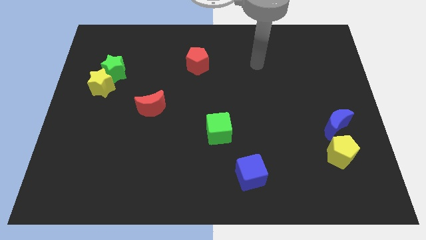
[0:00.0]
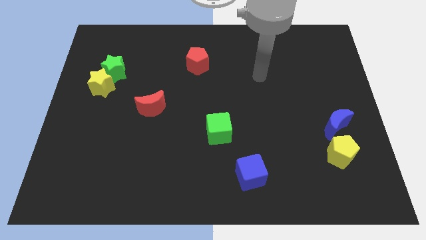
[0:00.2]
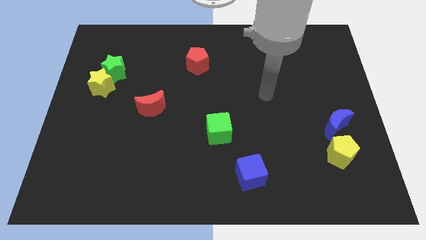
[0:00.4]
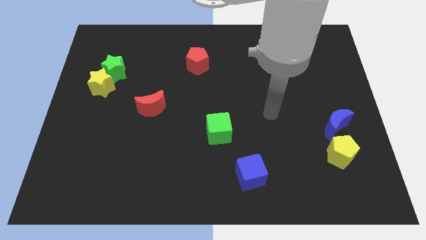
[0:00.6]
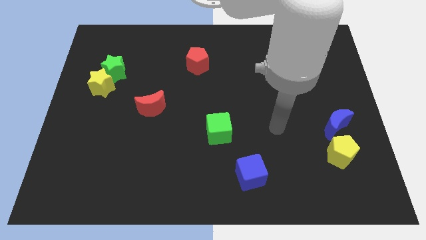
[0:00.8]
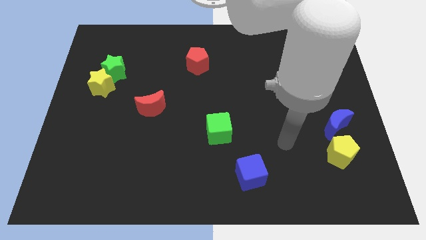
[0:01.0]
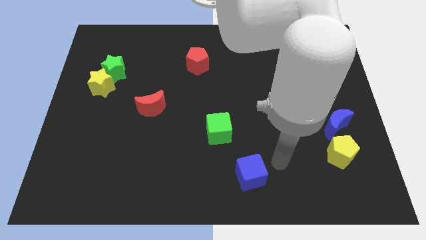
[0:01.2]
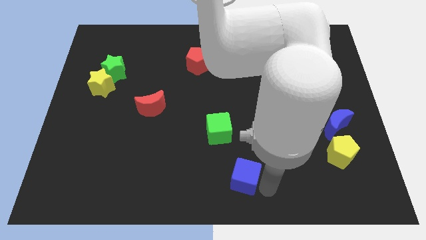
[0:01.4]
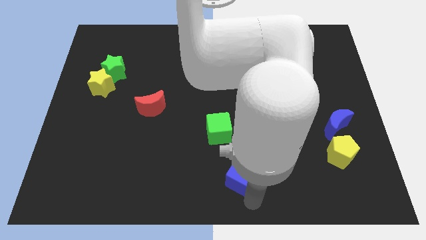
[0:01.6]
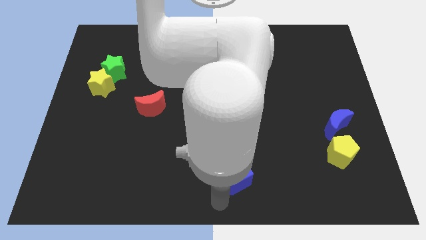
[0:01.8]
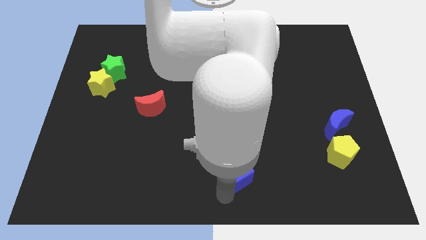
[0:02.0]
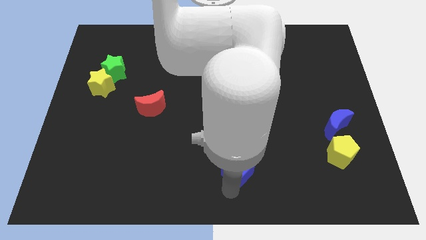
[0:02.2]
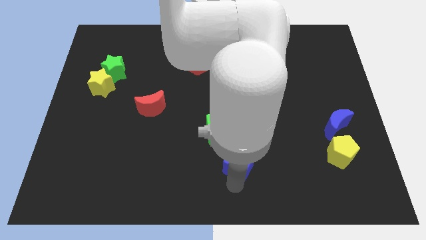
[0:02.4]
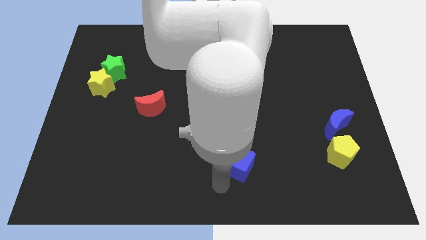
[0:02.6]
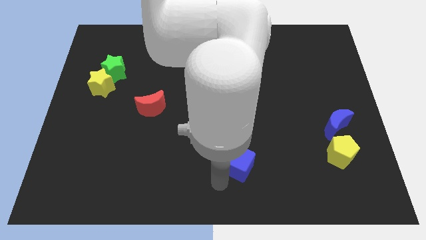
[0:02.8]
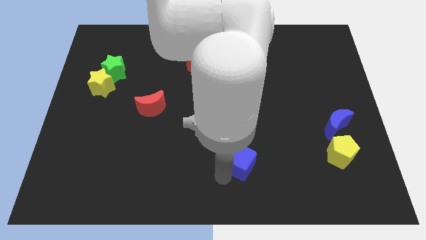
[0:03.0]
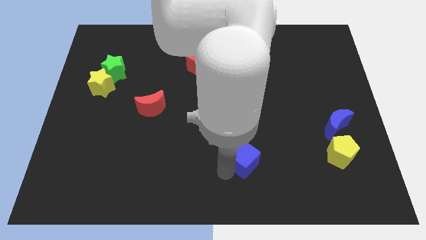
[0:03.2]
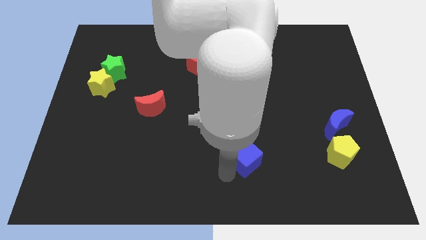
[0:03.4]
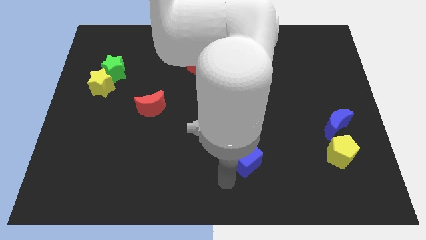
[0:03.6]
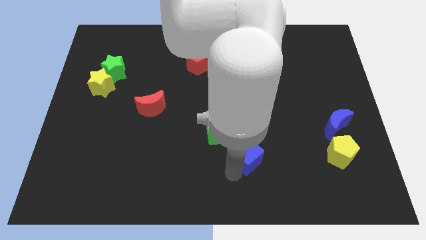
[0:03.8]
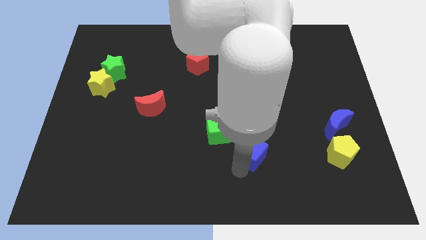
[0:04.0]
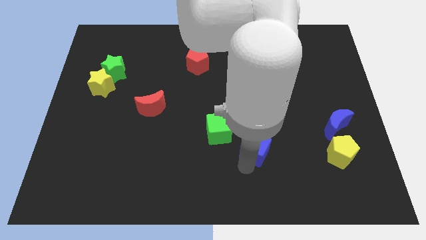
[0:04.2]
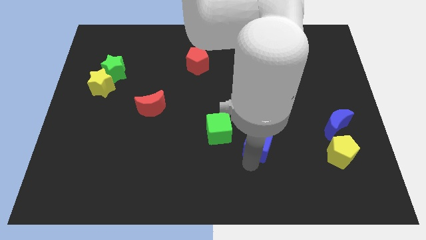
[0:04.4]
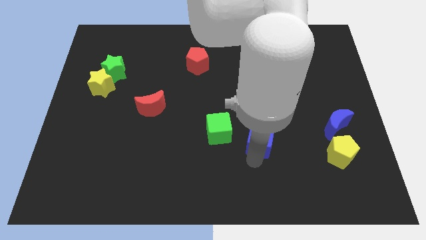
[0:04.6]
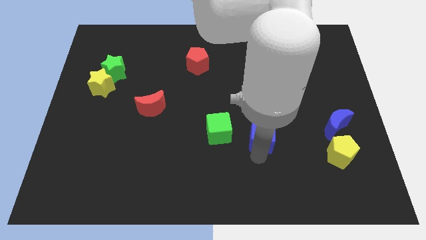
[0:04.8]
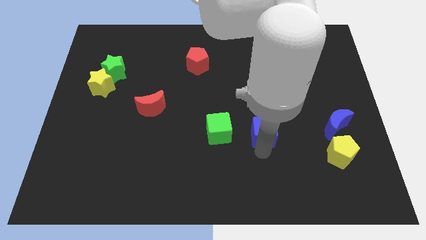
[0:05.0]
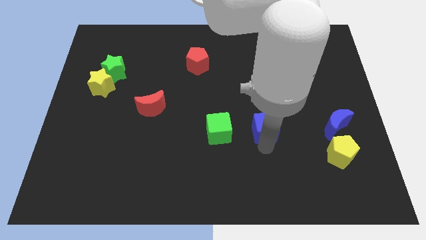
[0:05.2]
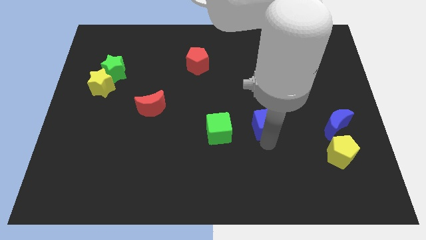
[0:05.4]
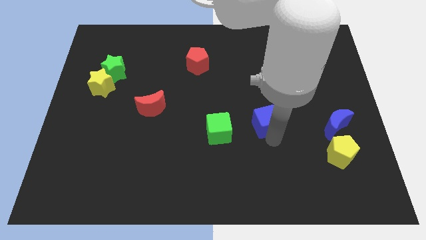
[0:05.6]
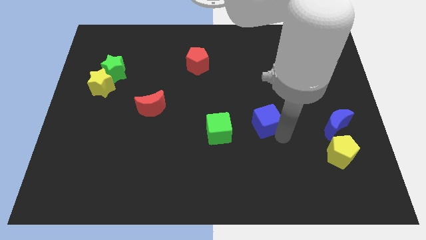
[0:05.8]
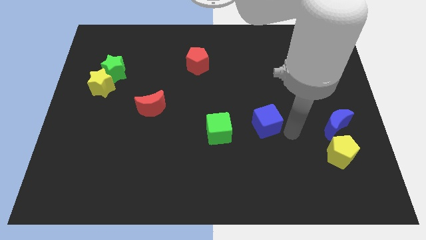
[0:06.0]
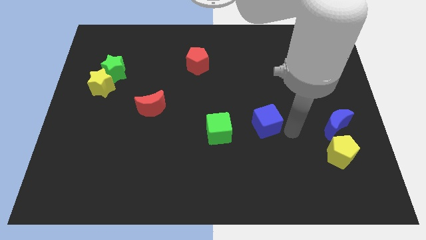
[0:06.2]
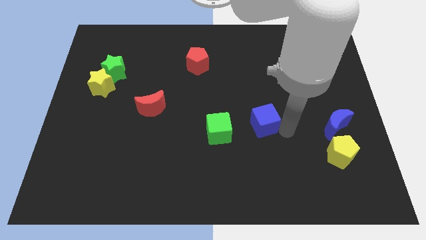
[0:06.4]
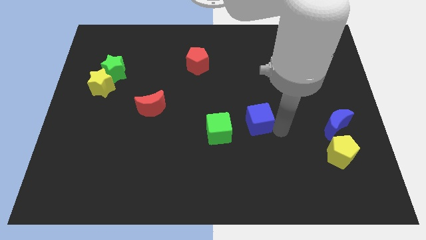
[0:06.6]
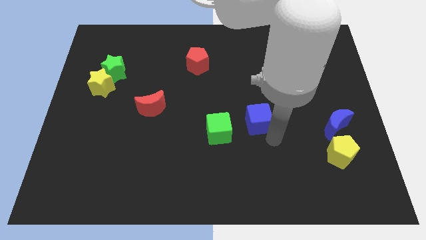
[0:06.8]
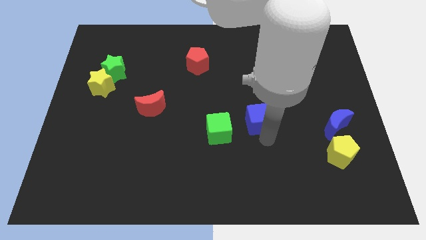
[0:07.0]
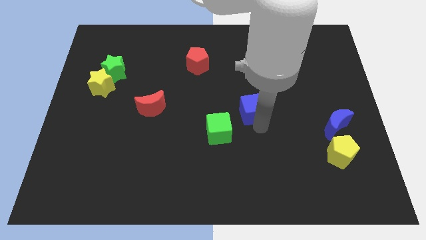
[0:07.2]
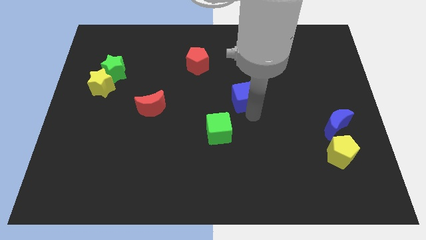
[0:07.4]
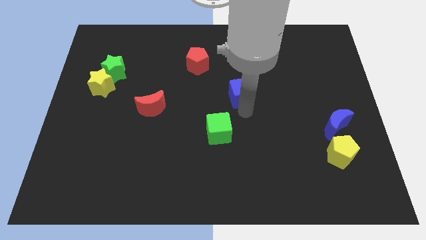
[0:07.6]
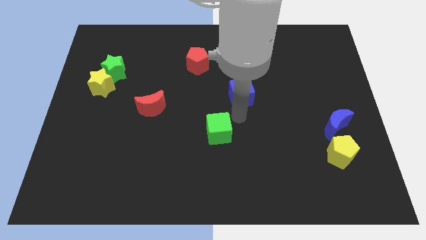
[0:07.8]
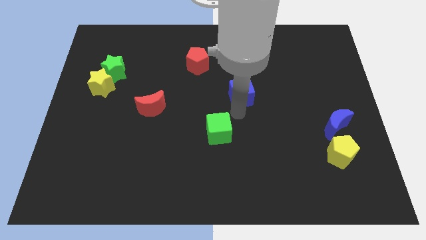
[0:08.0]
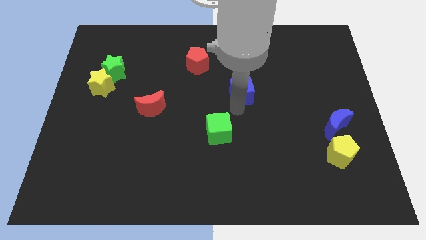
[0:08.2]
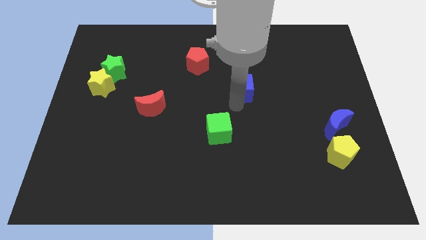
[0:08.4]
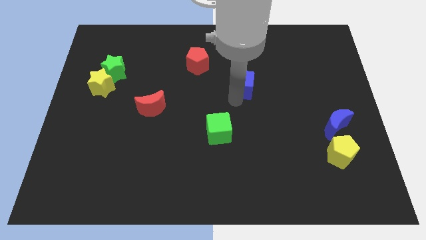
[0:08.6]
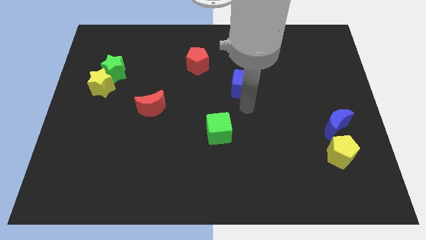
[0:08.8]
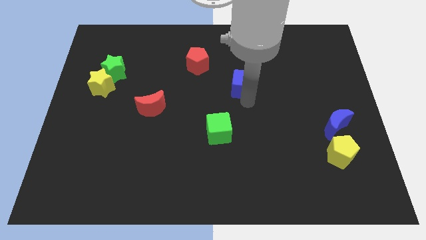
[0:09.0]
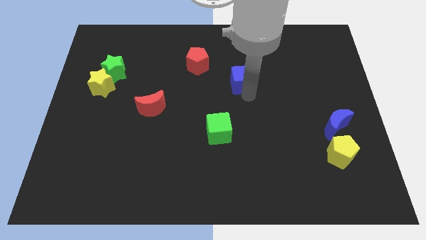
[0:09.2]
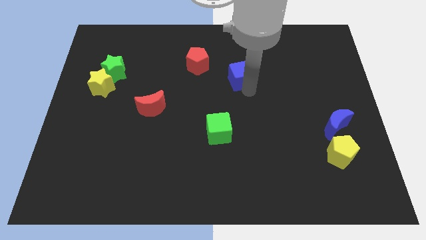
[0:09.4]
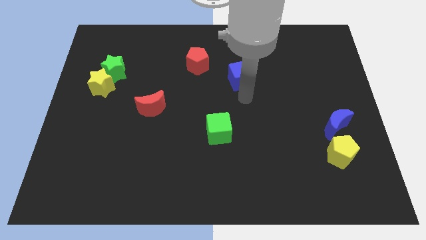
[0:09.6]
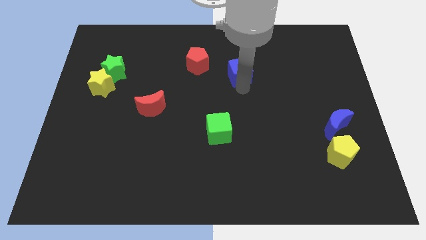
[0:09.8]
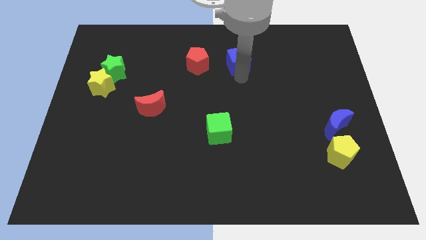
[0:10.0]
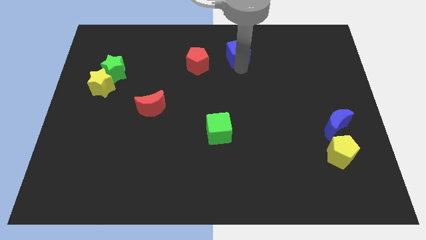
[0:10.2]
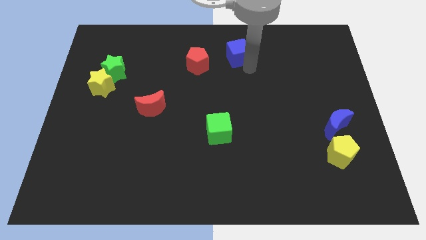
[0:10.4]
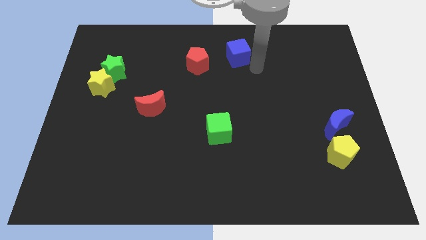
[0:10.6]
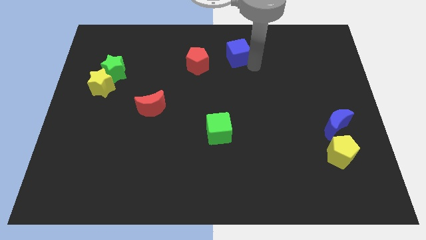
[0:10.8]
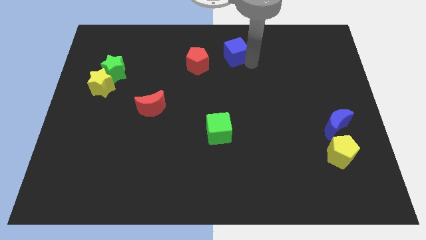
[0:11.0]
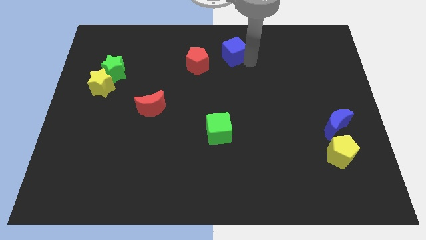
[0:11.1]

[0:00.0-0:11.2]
push the blue cube to the top side

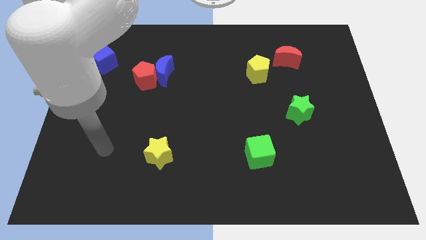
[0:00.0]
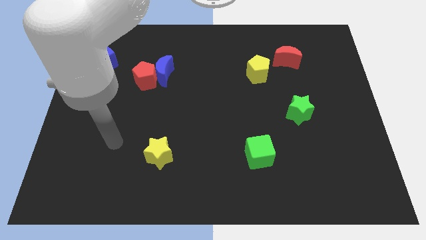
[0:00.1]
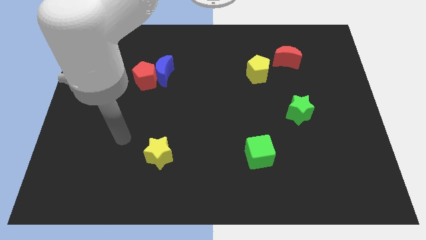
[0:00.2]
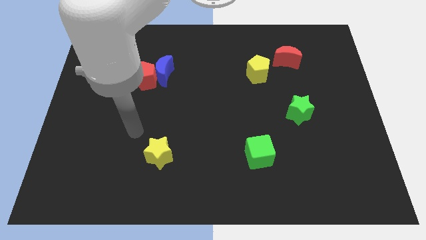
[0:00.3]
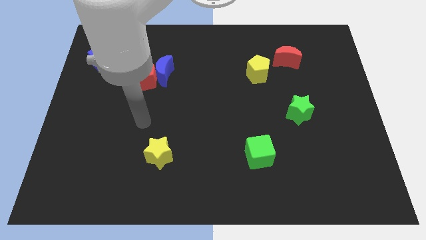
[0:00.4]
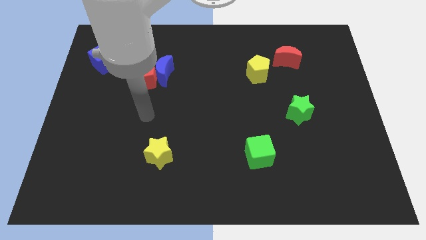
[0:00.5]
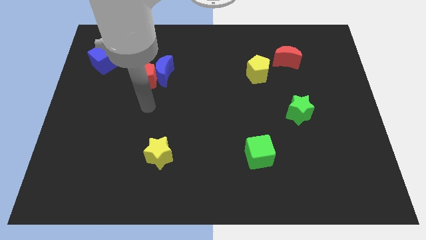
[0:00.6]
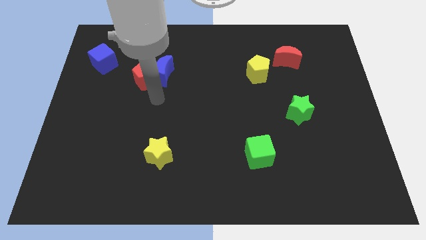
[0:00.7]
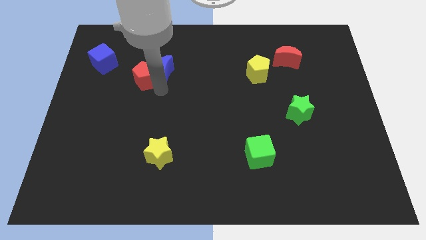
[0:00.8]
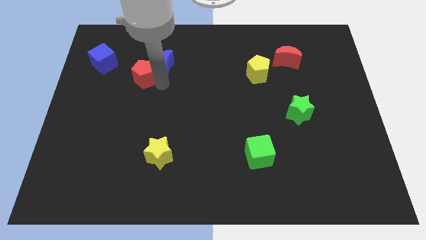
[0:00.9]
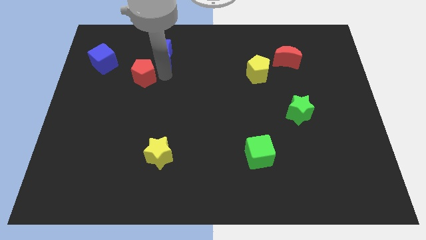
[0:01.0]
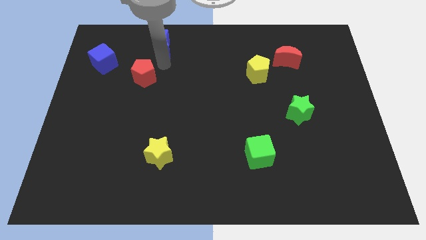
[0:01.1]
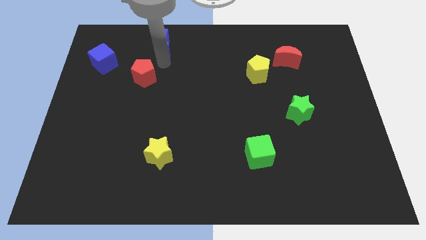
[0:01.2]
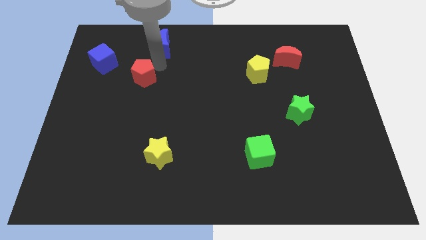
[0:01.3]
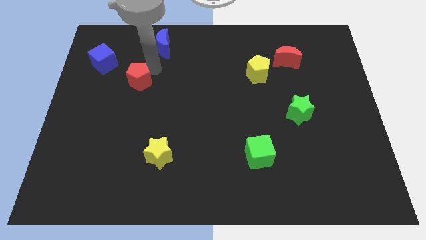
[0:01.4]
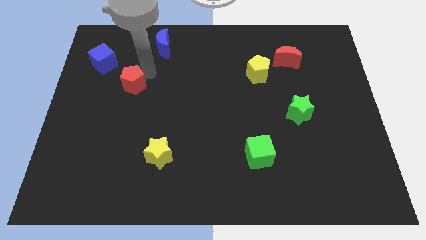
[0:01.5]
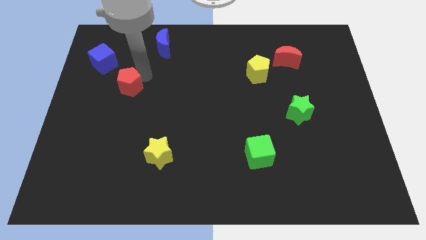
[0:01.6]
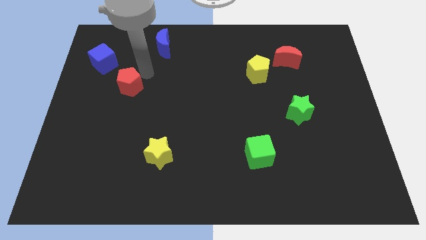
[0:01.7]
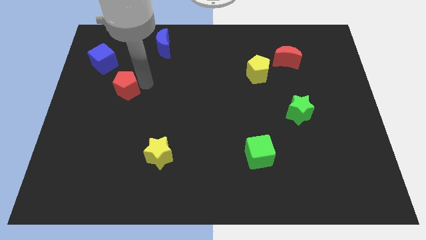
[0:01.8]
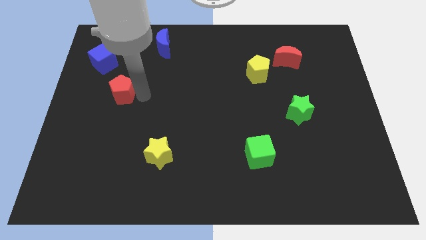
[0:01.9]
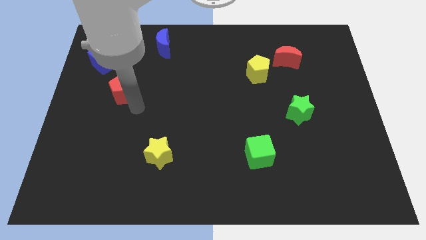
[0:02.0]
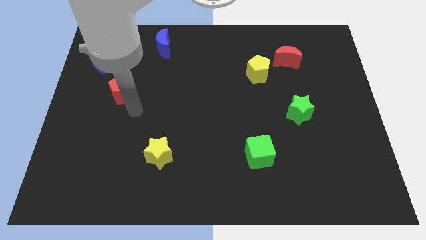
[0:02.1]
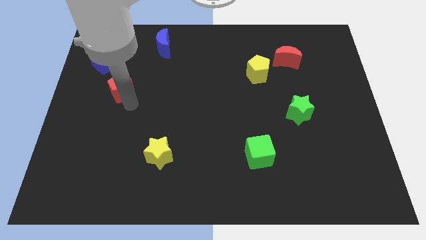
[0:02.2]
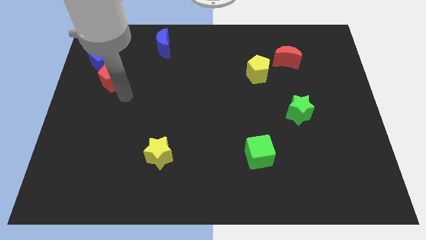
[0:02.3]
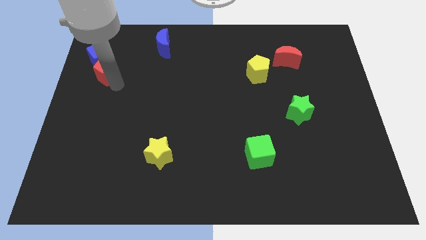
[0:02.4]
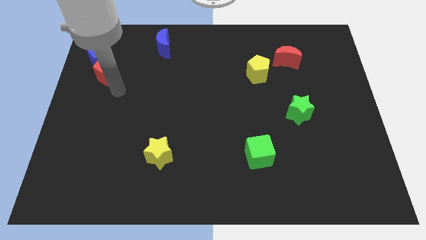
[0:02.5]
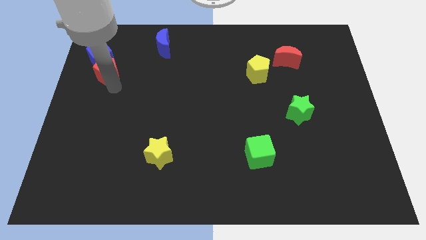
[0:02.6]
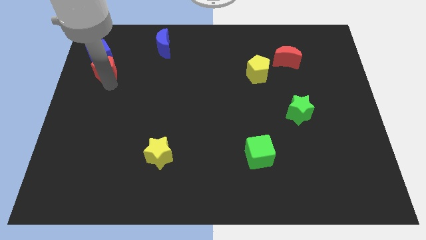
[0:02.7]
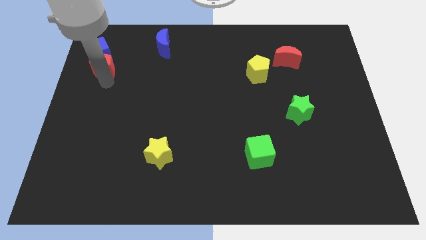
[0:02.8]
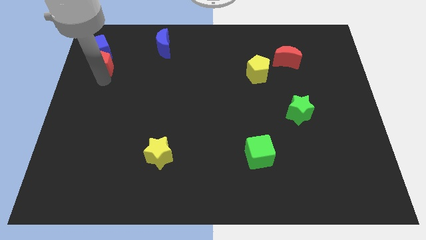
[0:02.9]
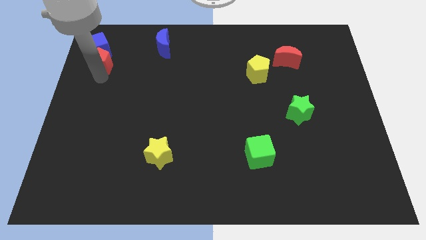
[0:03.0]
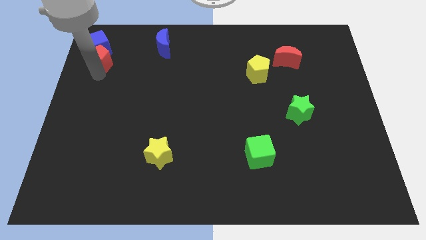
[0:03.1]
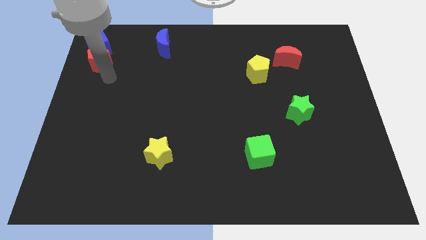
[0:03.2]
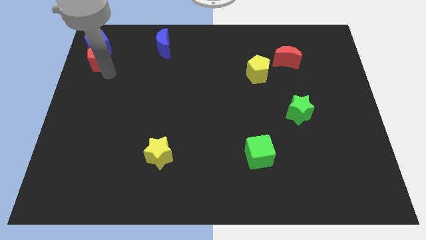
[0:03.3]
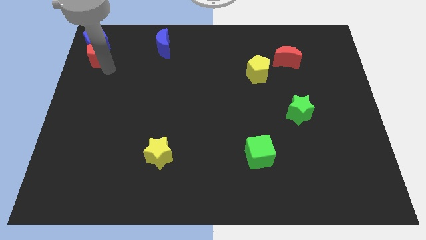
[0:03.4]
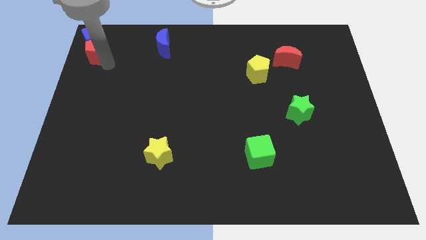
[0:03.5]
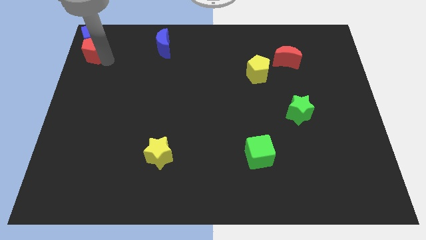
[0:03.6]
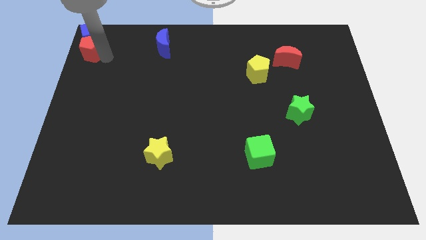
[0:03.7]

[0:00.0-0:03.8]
move the red pentagon to the upper left corner
